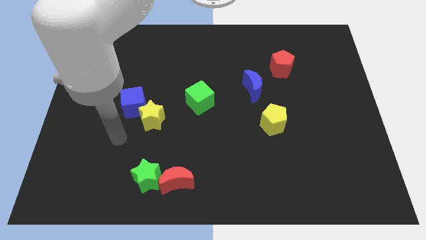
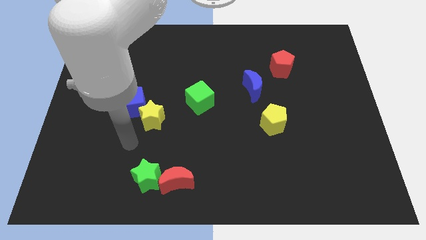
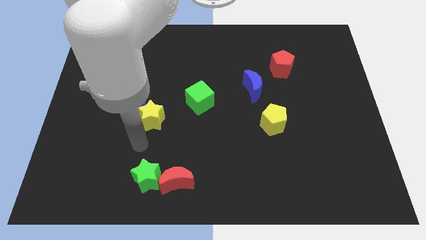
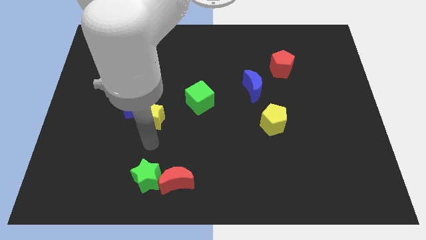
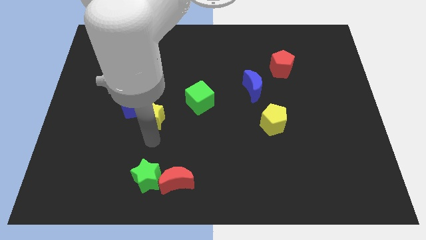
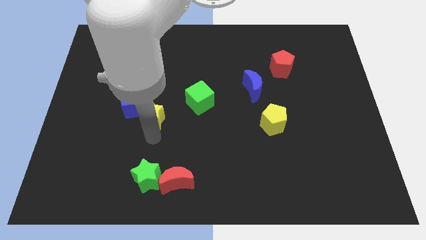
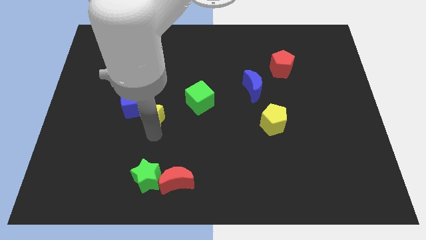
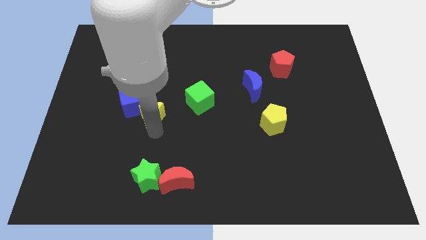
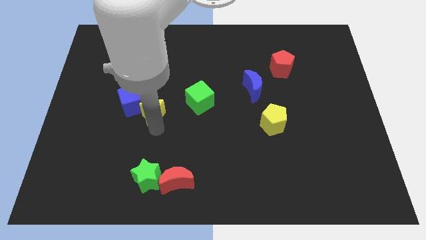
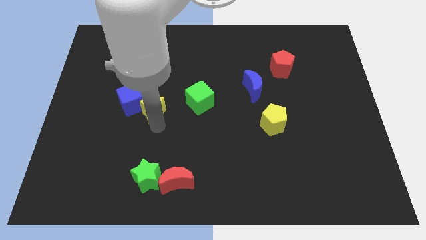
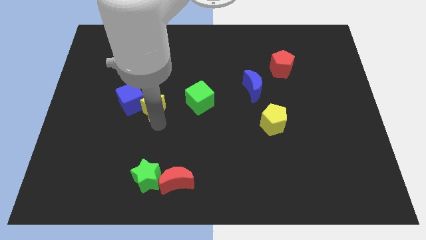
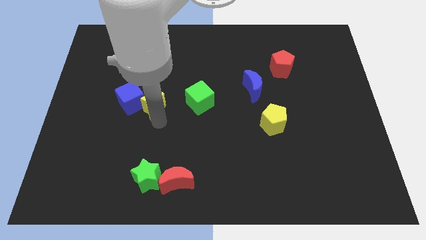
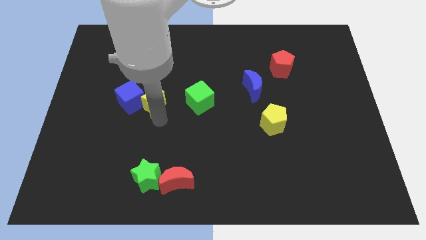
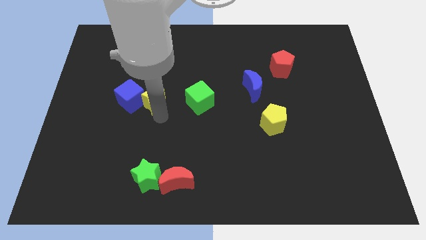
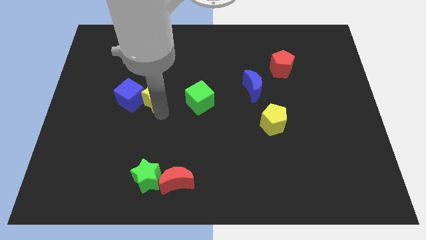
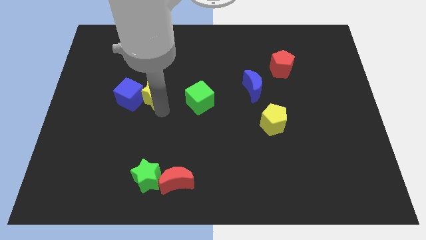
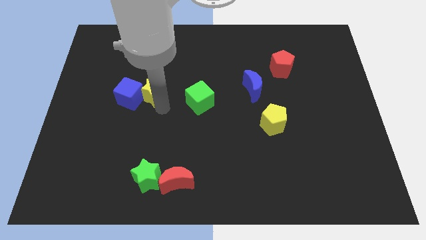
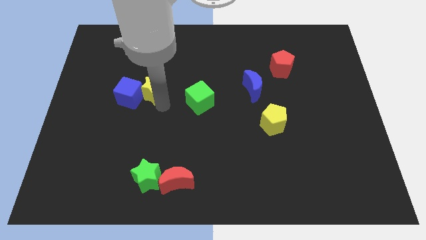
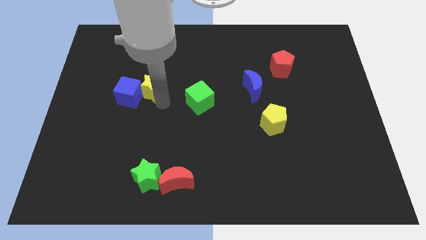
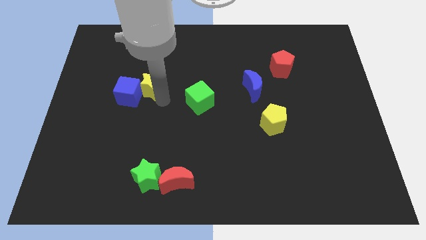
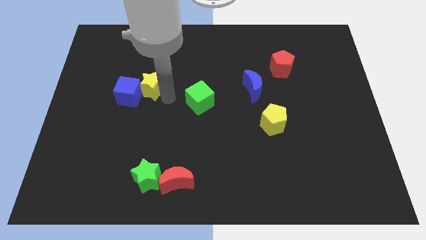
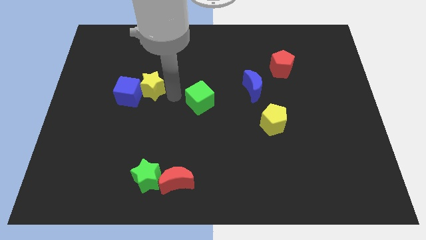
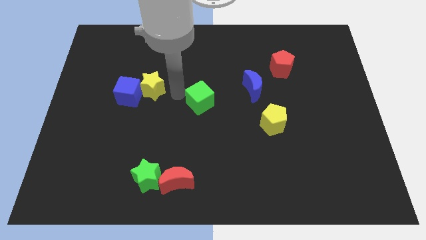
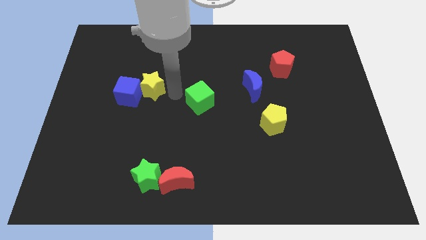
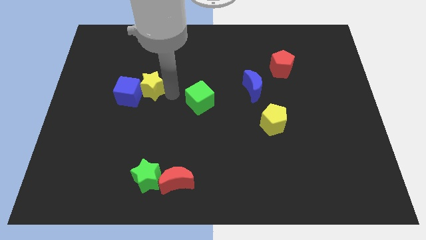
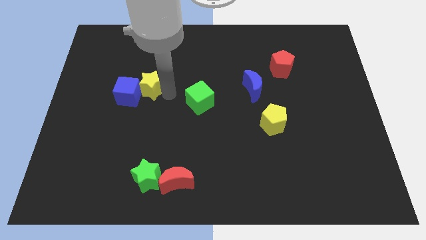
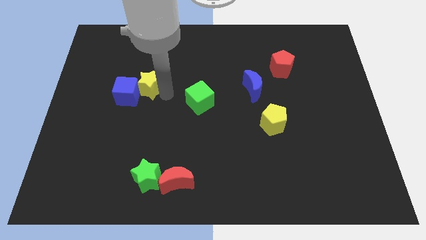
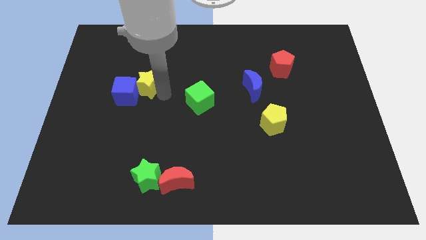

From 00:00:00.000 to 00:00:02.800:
slightly push the yellow star upwards and left

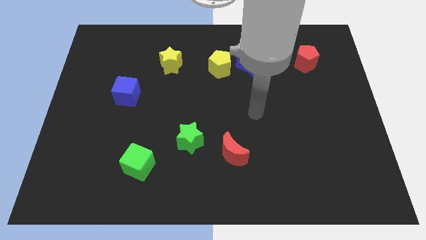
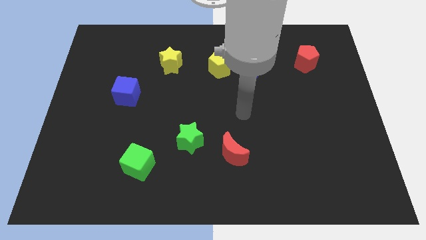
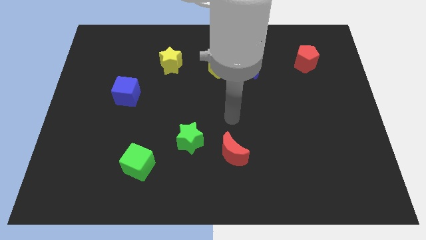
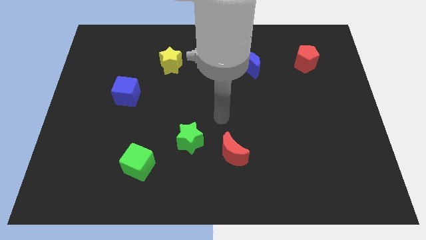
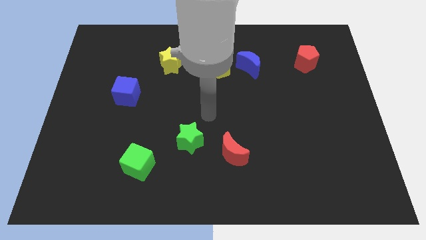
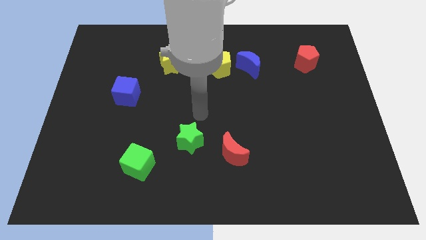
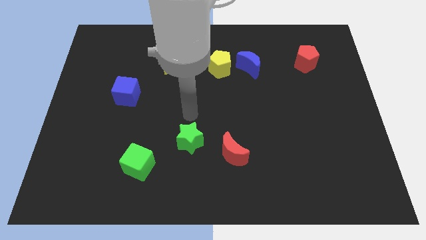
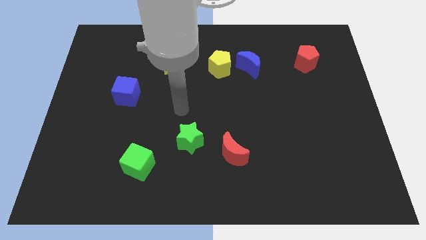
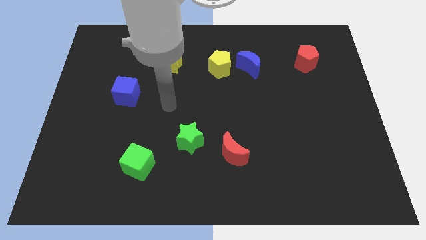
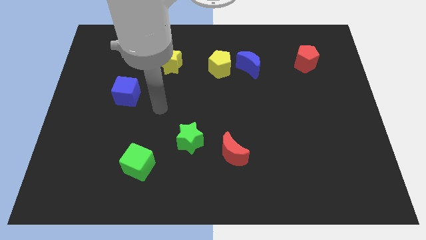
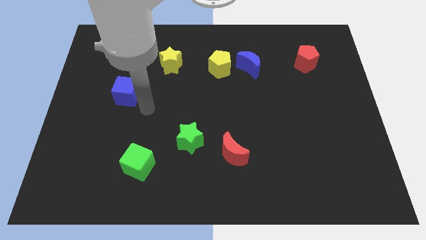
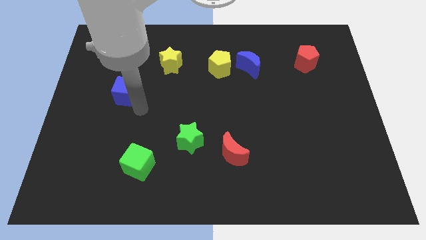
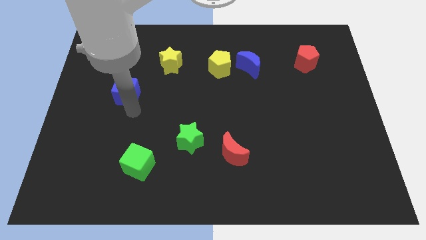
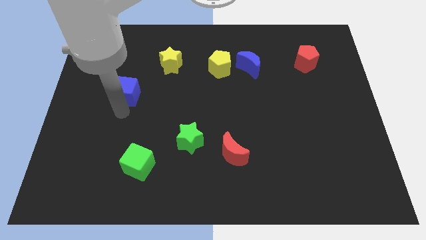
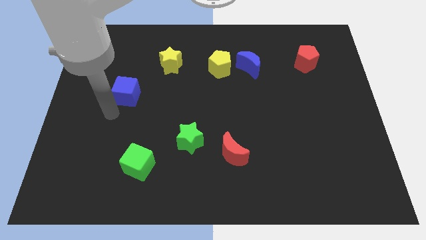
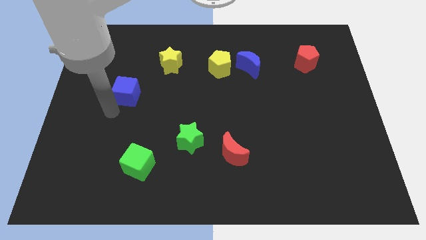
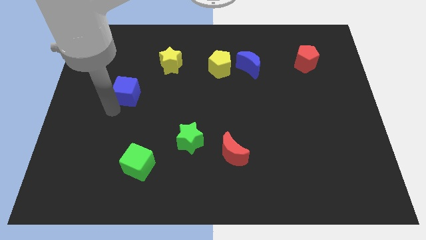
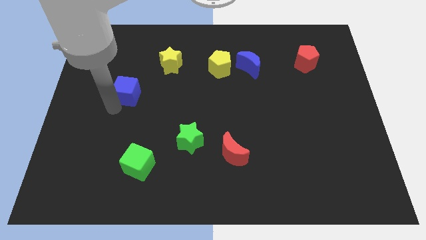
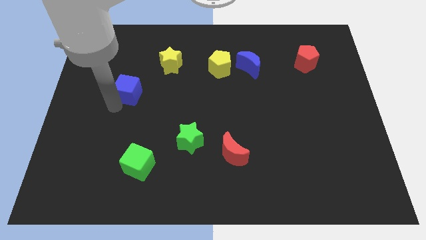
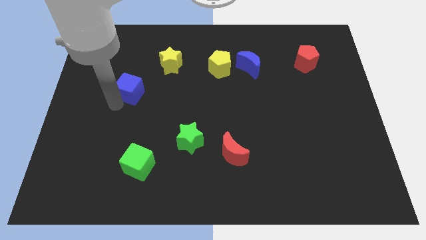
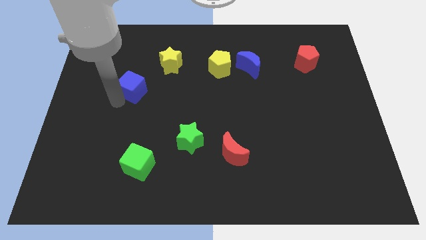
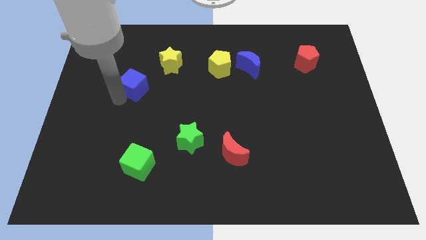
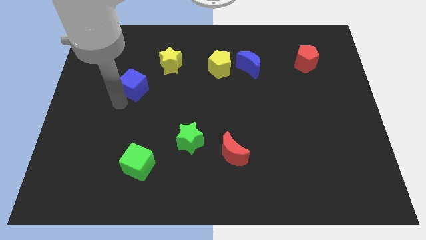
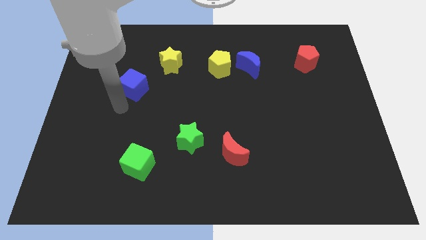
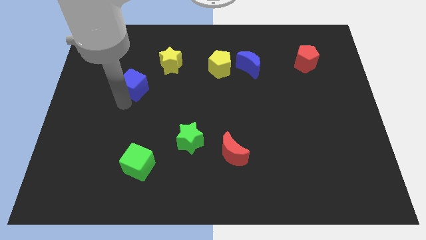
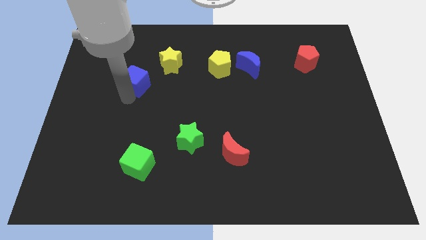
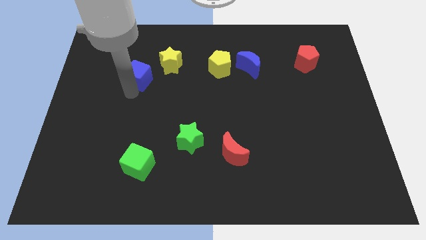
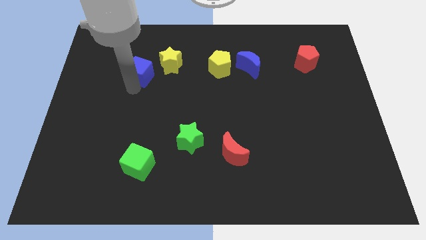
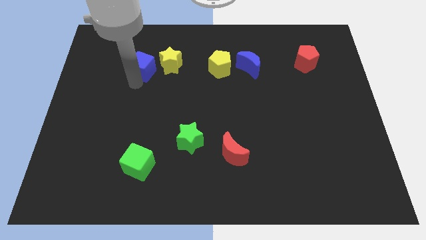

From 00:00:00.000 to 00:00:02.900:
move the blue cube upwards and to the right diagonally a little bit

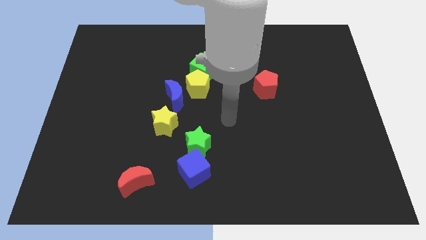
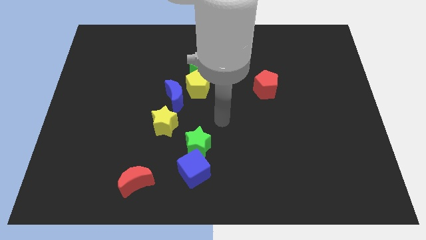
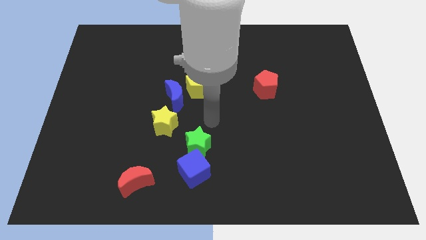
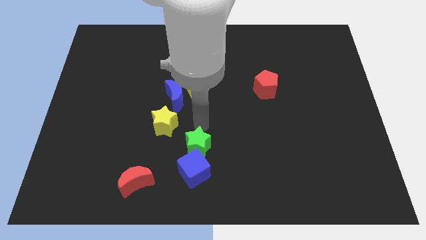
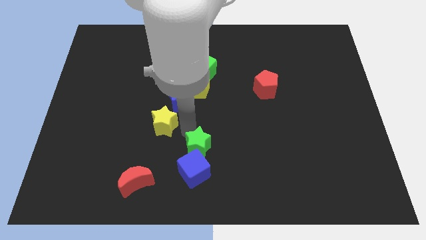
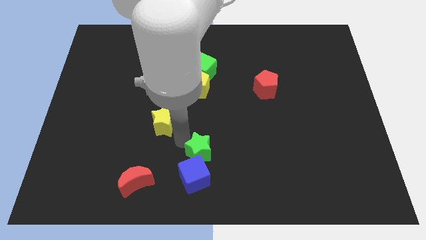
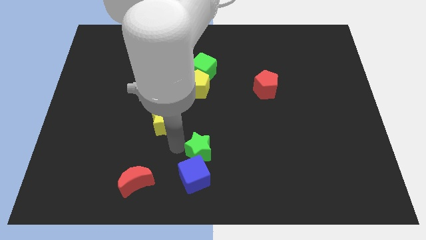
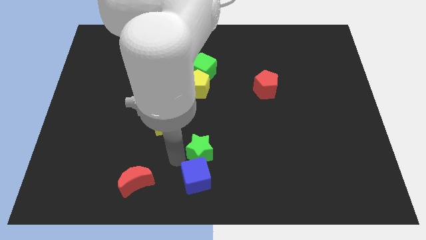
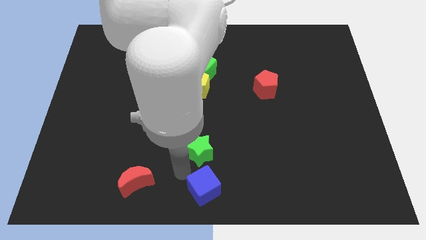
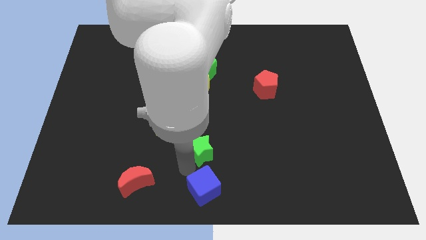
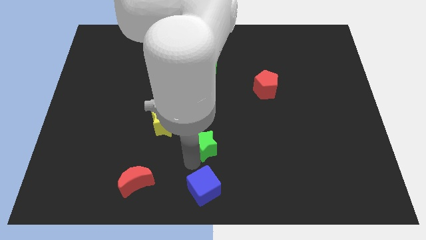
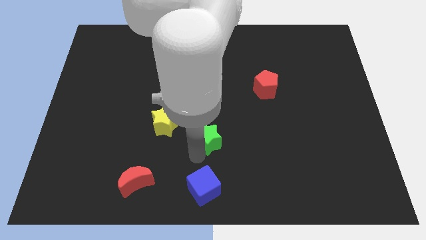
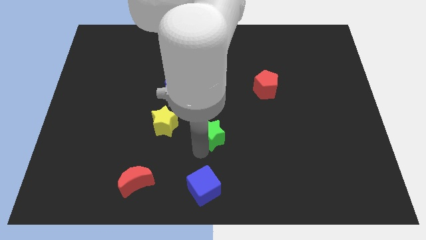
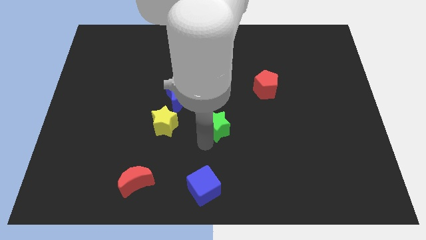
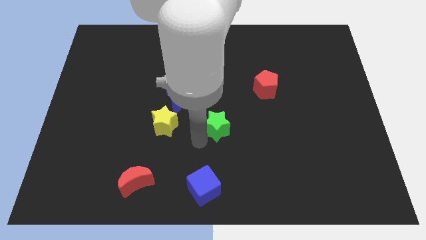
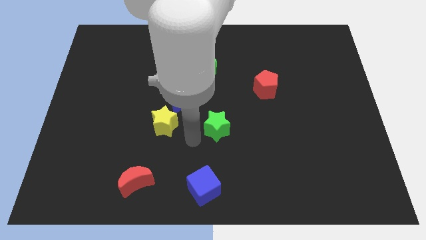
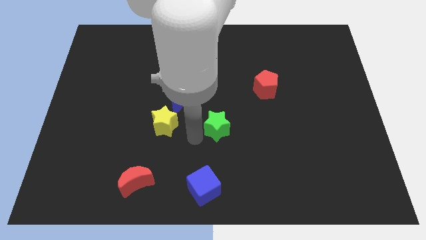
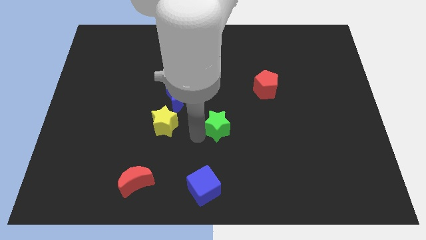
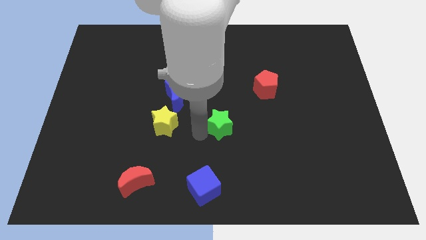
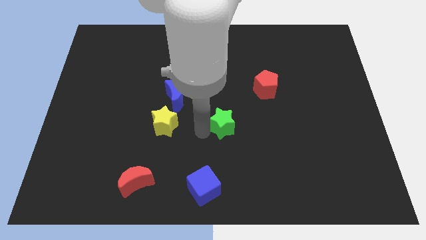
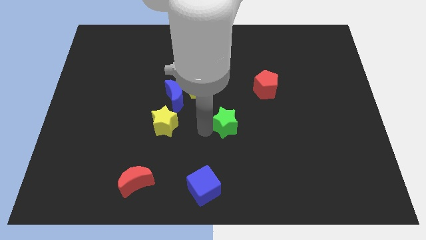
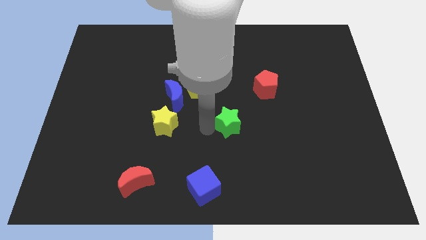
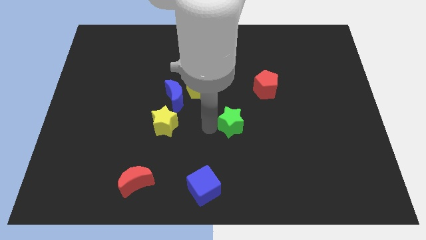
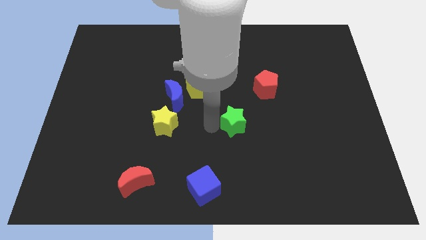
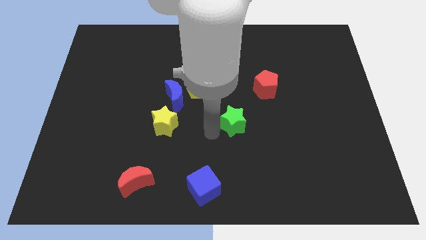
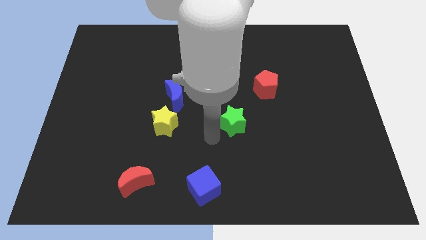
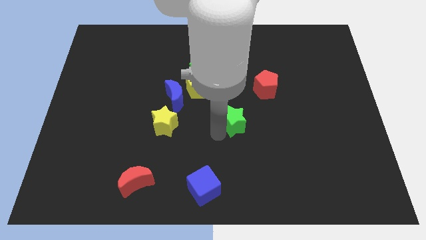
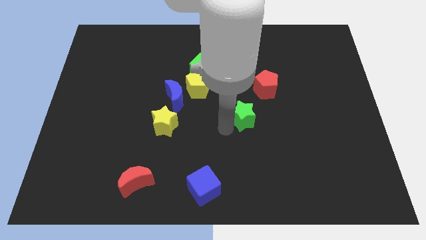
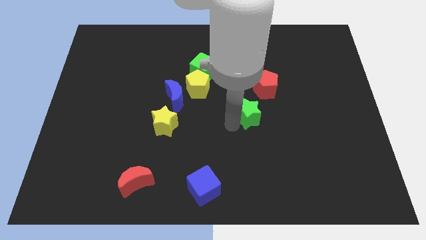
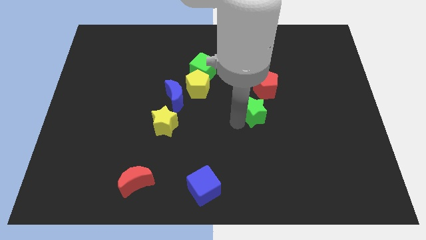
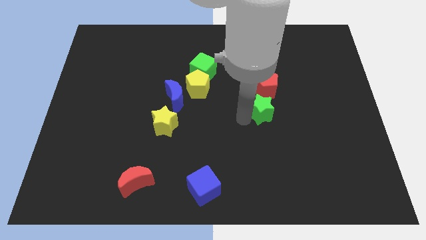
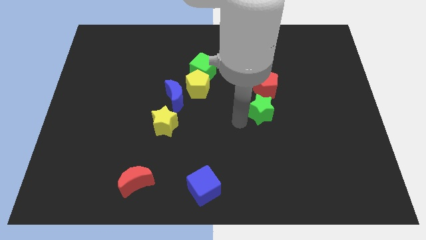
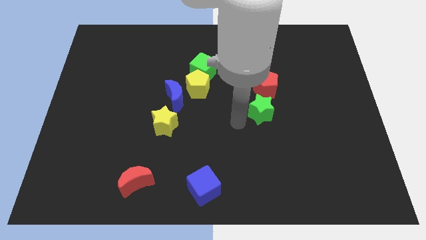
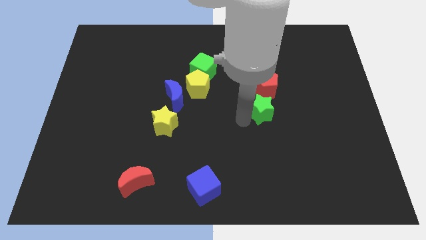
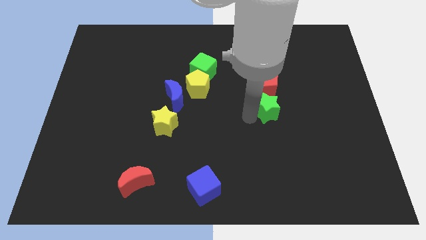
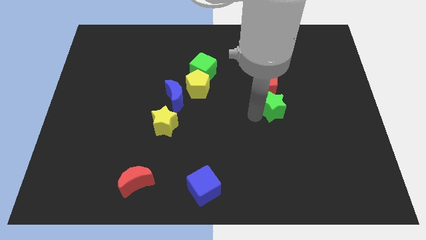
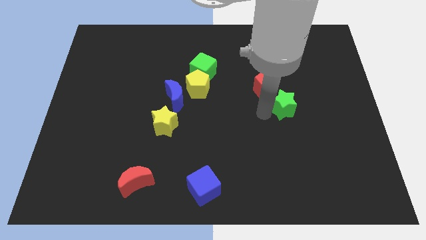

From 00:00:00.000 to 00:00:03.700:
move the green star upwards and to the right diagonally
